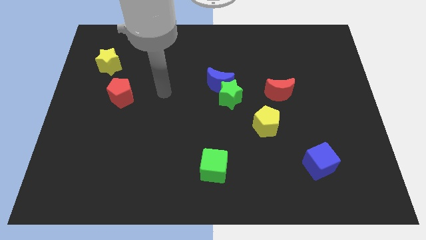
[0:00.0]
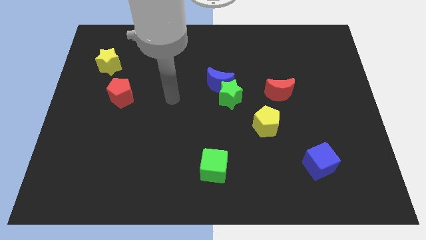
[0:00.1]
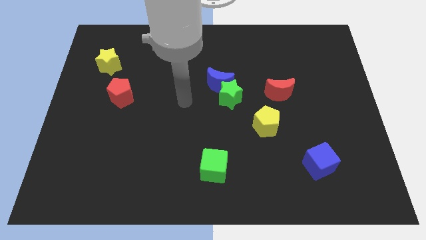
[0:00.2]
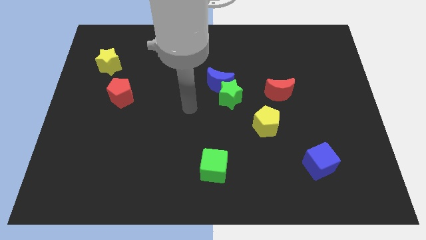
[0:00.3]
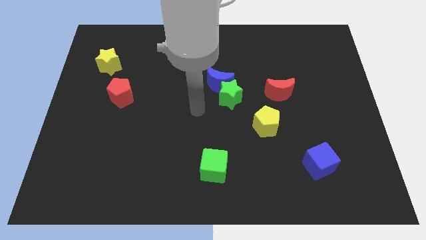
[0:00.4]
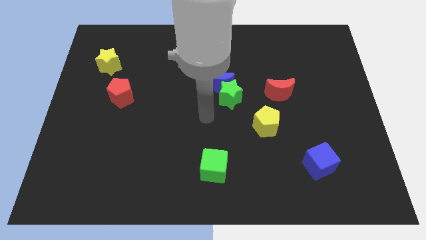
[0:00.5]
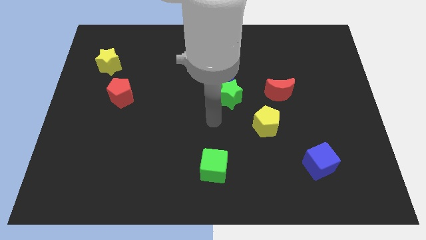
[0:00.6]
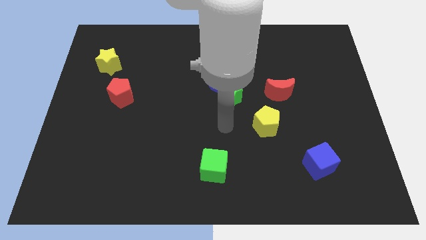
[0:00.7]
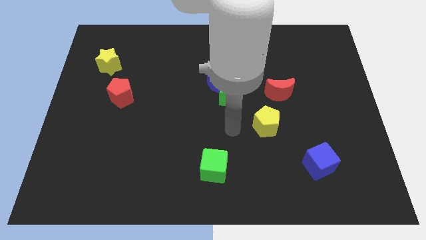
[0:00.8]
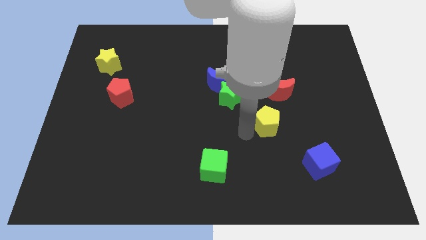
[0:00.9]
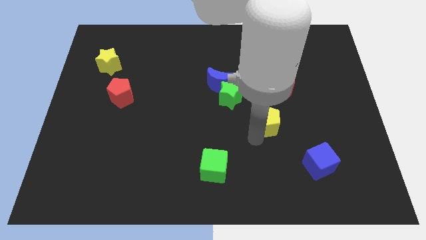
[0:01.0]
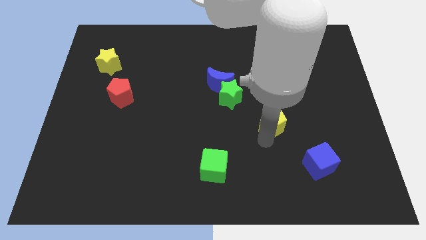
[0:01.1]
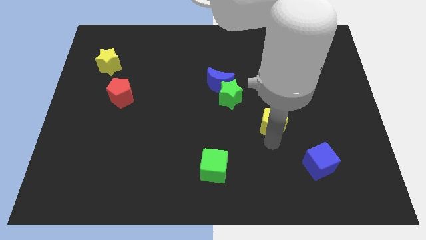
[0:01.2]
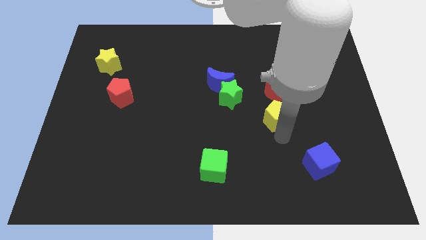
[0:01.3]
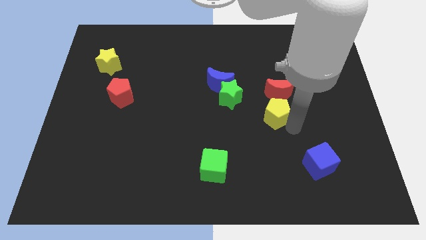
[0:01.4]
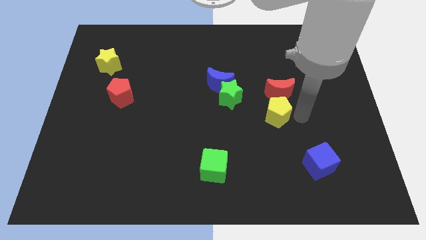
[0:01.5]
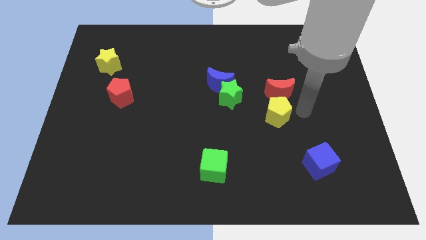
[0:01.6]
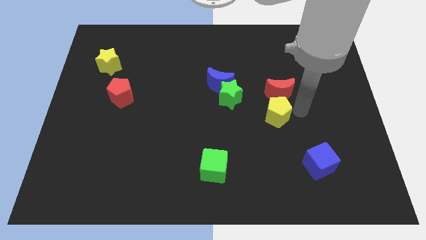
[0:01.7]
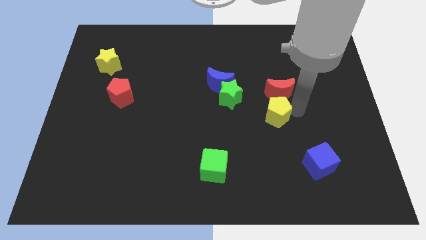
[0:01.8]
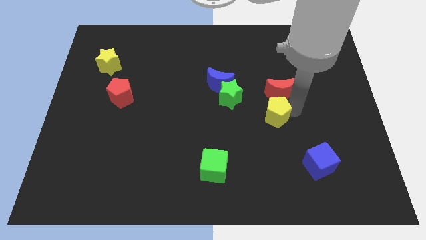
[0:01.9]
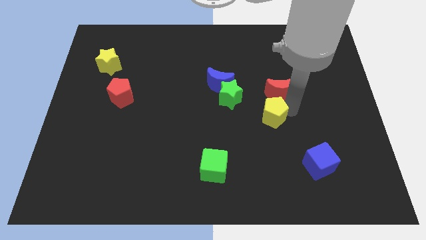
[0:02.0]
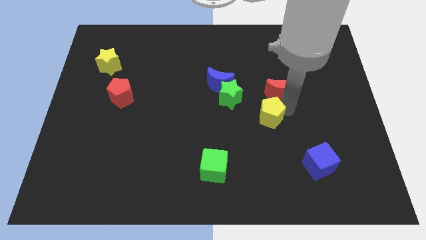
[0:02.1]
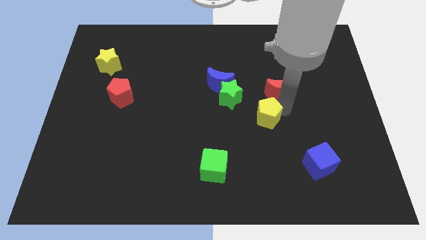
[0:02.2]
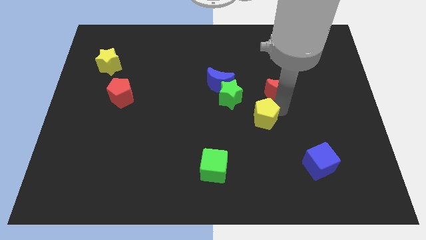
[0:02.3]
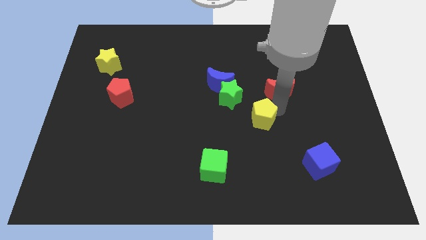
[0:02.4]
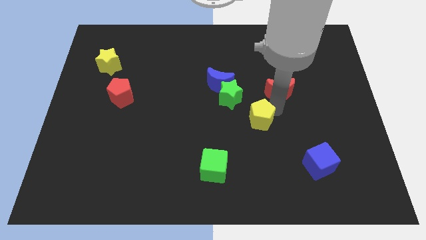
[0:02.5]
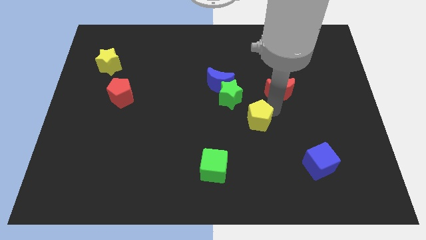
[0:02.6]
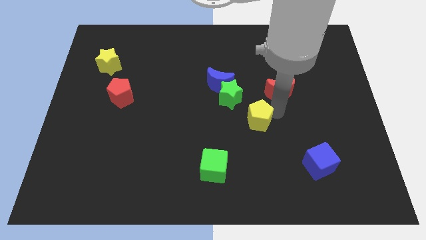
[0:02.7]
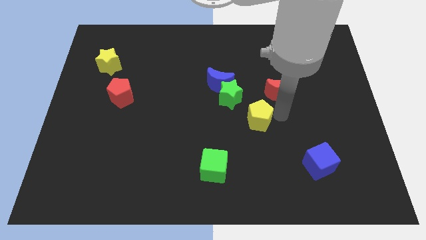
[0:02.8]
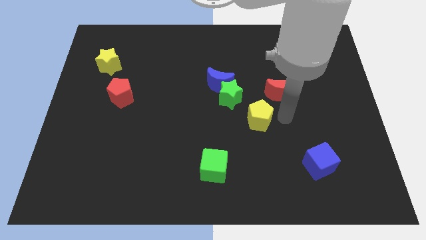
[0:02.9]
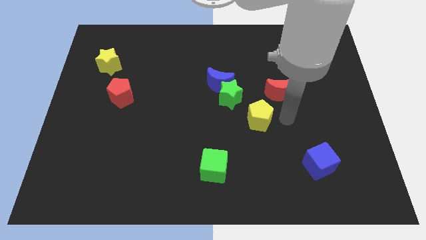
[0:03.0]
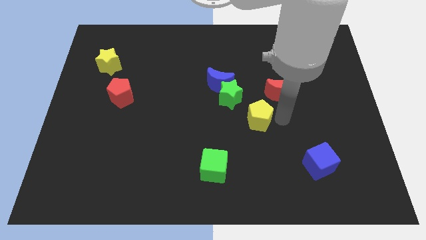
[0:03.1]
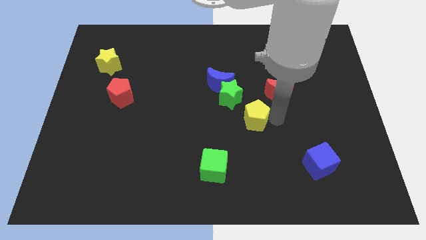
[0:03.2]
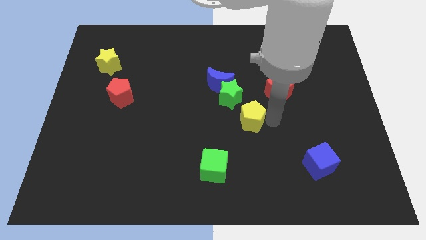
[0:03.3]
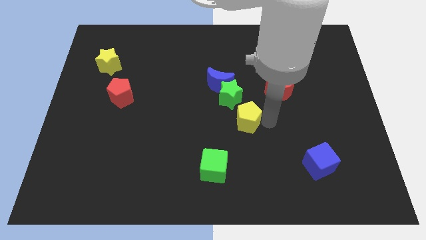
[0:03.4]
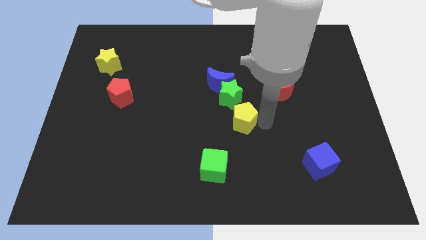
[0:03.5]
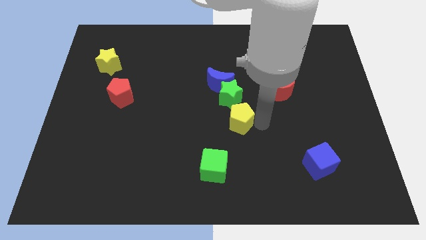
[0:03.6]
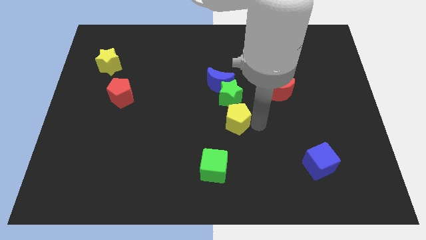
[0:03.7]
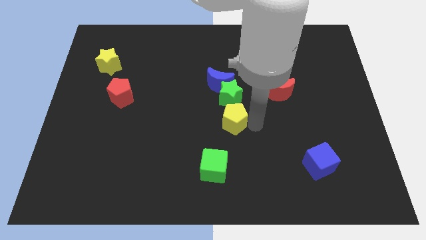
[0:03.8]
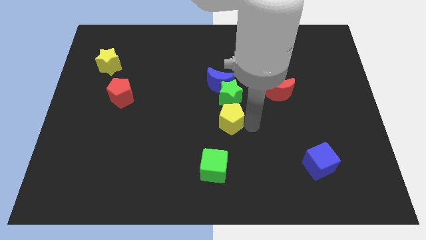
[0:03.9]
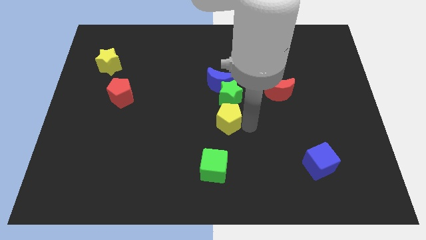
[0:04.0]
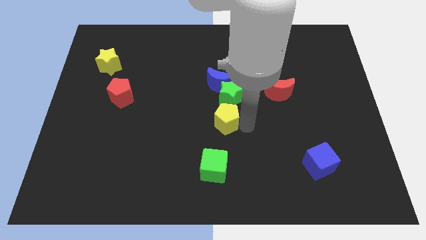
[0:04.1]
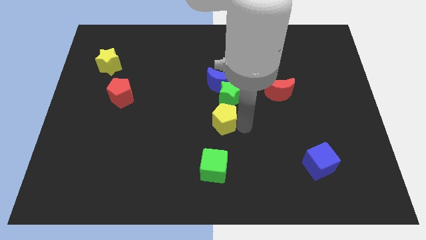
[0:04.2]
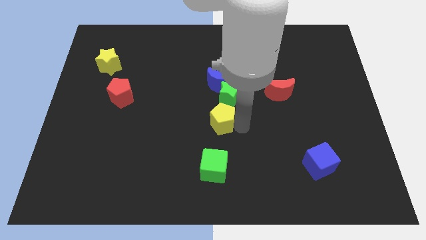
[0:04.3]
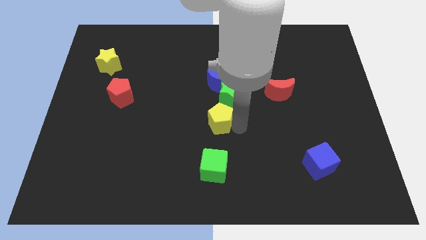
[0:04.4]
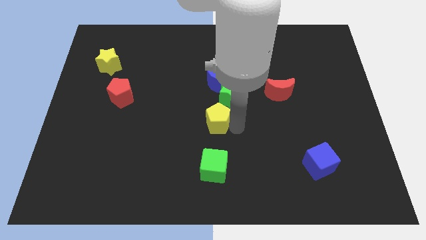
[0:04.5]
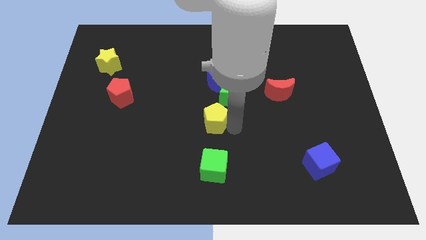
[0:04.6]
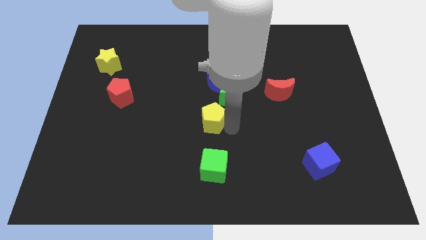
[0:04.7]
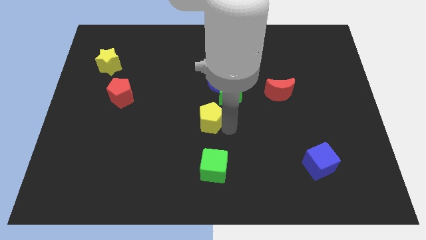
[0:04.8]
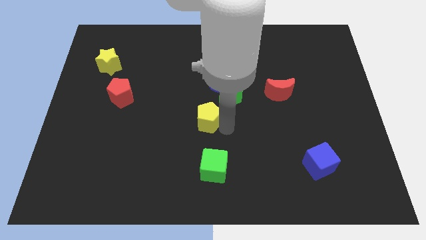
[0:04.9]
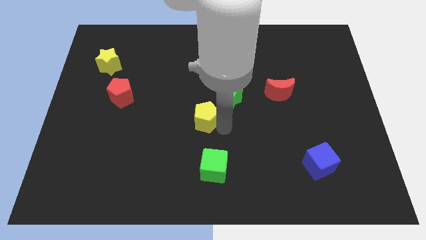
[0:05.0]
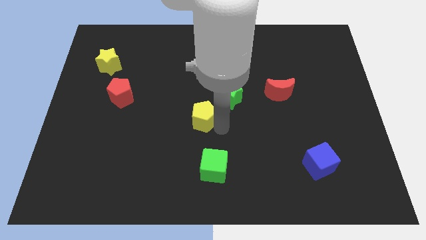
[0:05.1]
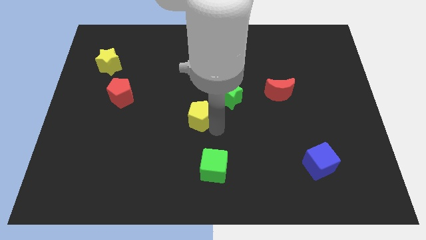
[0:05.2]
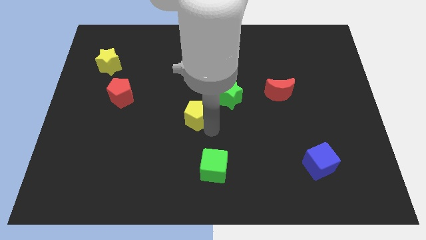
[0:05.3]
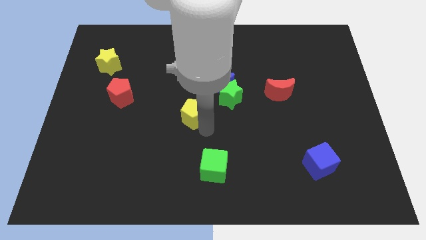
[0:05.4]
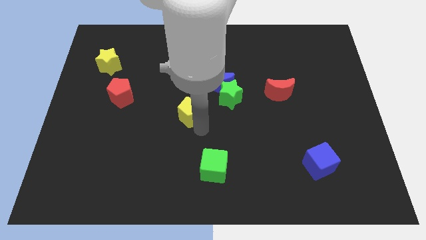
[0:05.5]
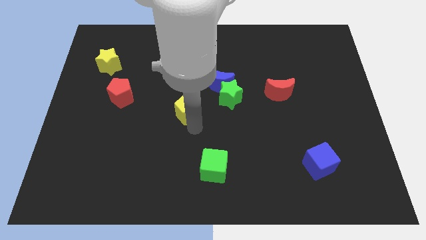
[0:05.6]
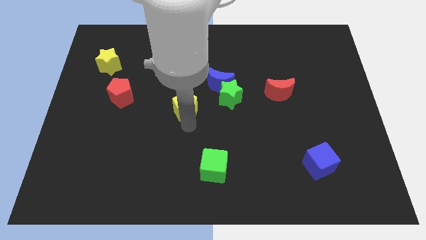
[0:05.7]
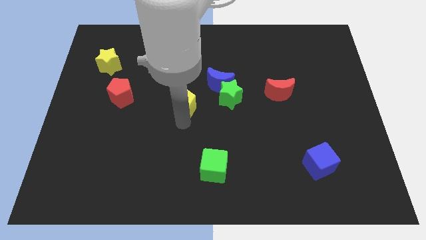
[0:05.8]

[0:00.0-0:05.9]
move the yellow pentagon to the right of the red pentagon

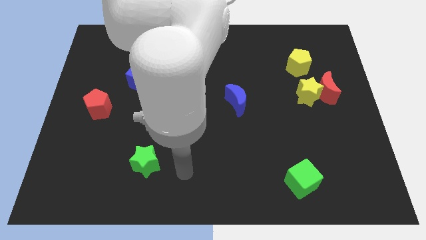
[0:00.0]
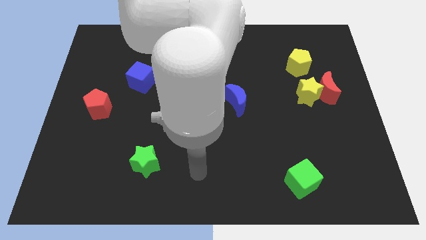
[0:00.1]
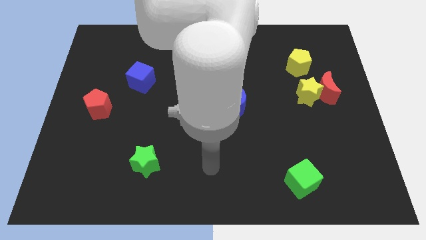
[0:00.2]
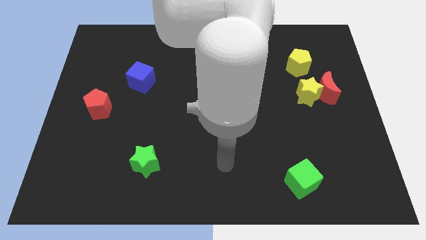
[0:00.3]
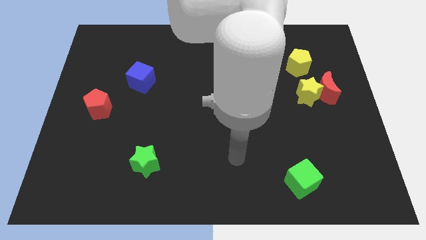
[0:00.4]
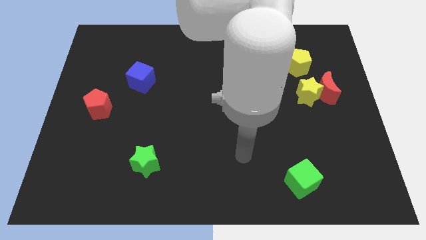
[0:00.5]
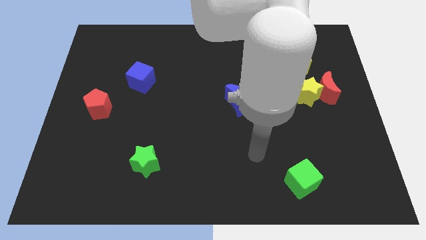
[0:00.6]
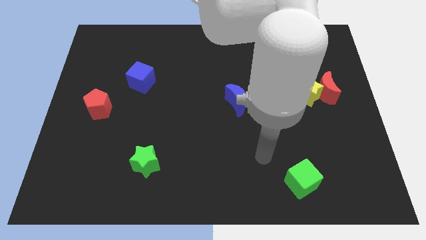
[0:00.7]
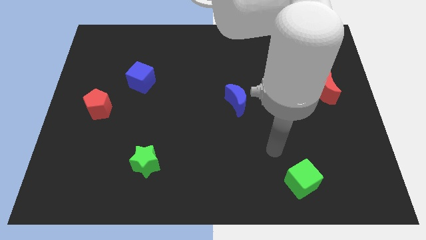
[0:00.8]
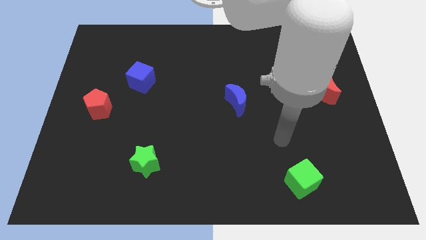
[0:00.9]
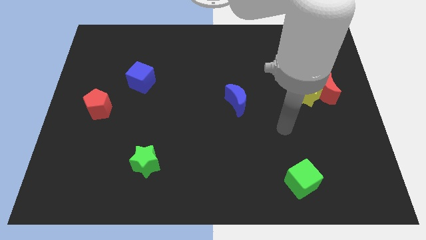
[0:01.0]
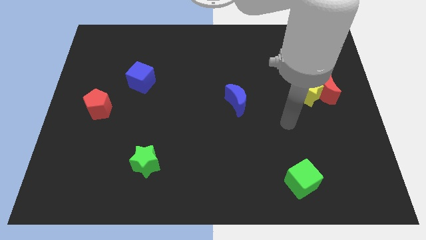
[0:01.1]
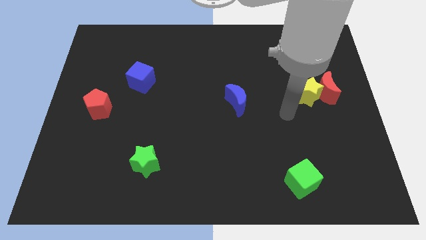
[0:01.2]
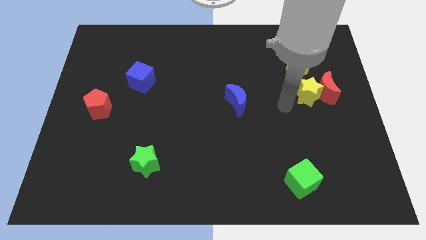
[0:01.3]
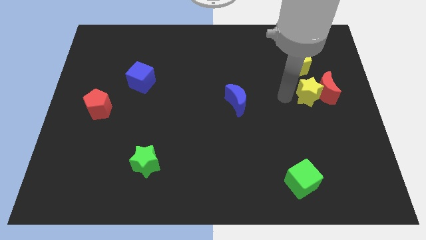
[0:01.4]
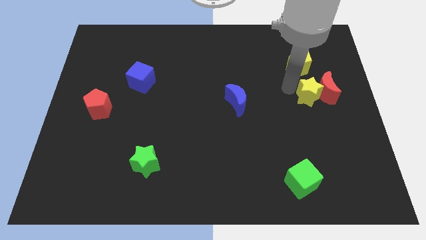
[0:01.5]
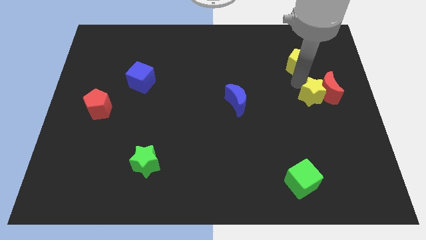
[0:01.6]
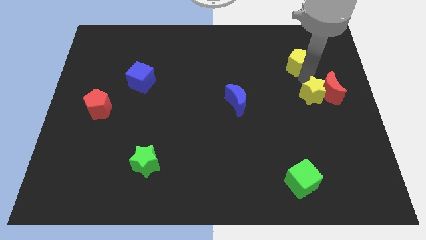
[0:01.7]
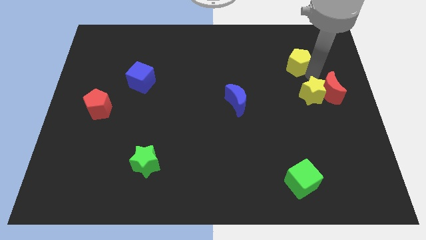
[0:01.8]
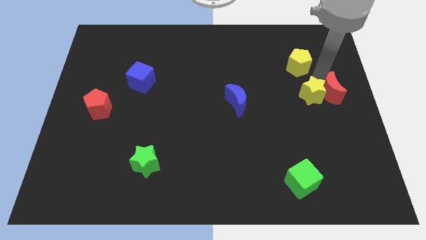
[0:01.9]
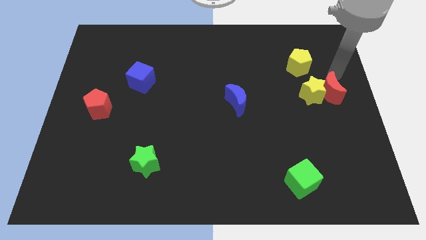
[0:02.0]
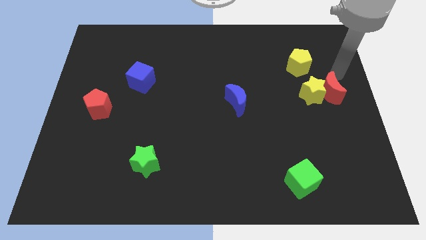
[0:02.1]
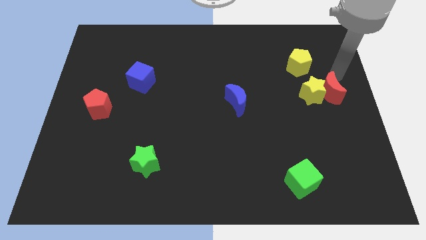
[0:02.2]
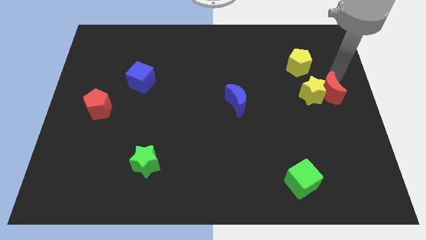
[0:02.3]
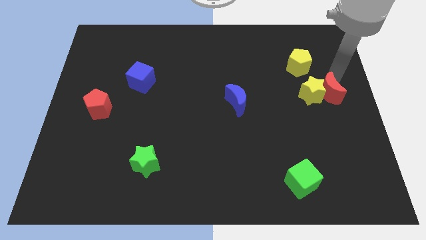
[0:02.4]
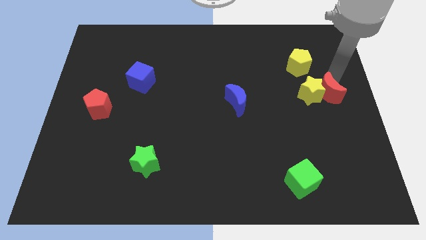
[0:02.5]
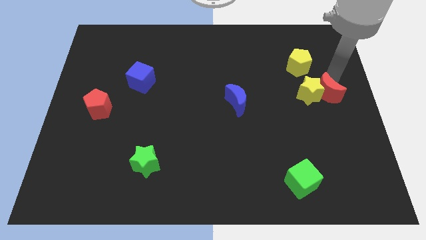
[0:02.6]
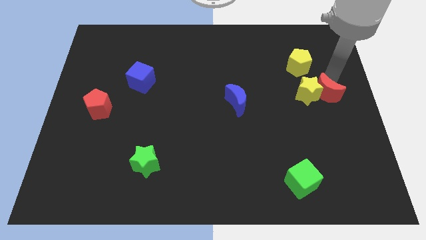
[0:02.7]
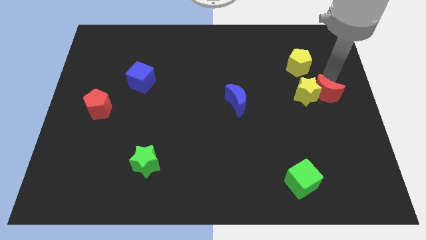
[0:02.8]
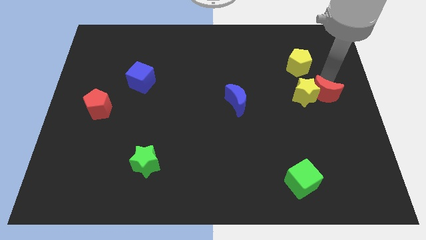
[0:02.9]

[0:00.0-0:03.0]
push the red moon to the bottom side of the yellow pentagon
